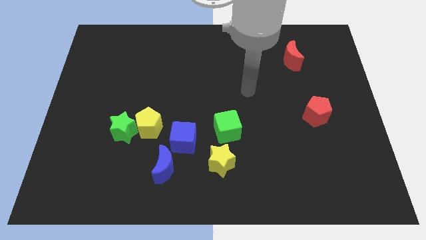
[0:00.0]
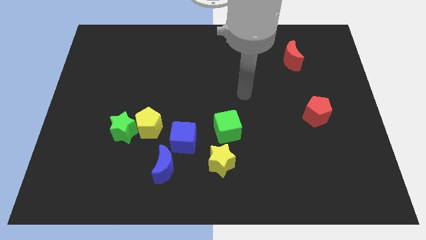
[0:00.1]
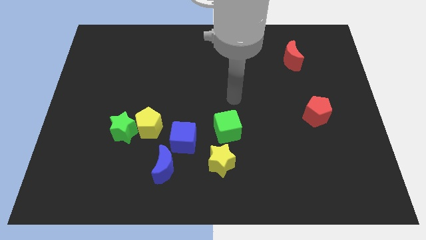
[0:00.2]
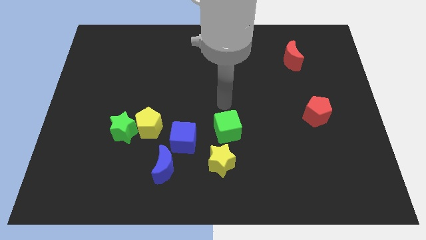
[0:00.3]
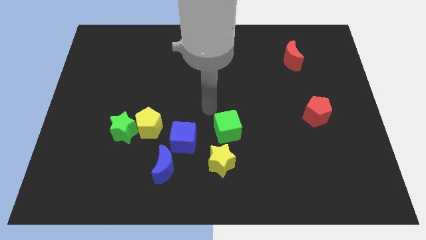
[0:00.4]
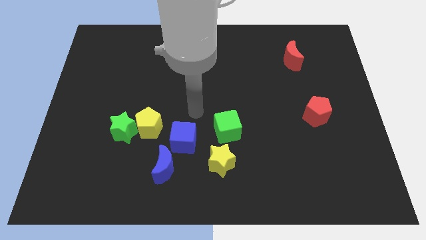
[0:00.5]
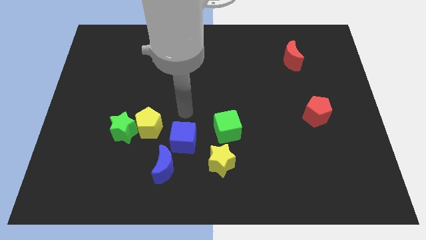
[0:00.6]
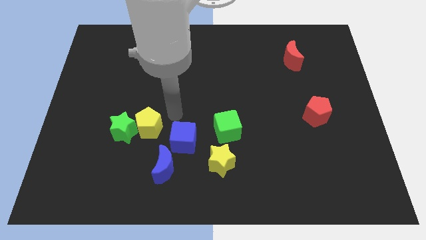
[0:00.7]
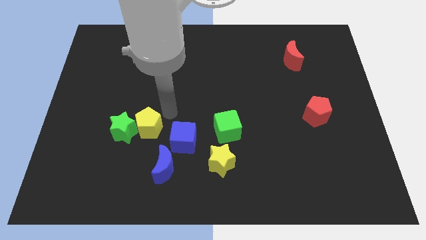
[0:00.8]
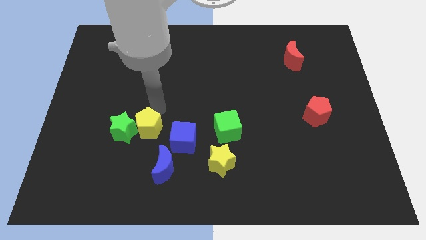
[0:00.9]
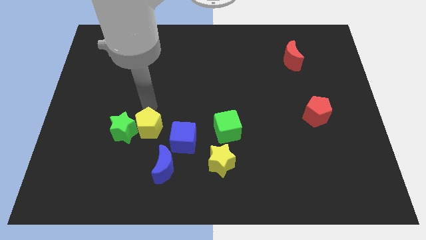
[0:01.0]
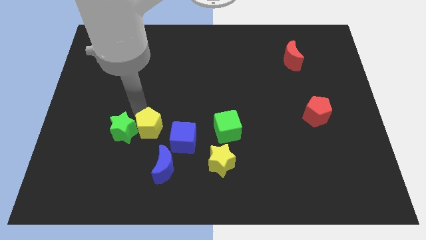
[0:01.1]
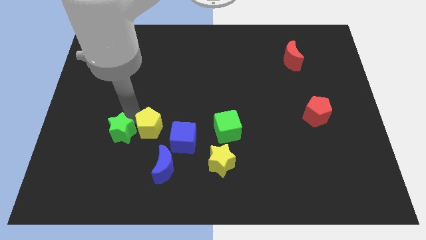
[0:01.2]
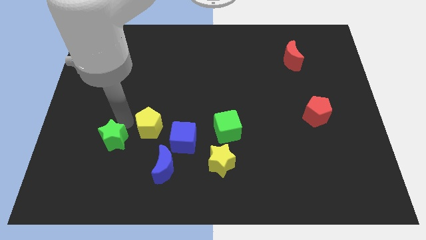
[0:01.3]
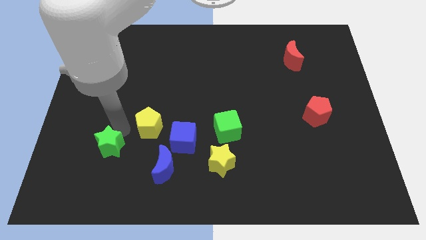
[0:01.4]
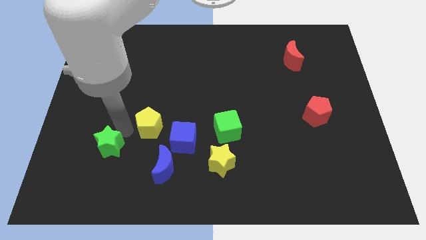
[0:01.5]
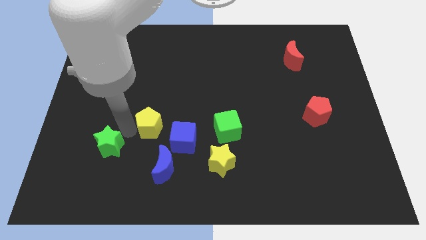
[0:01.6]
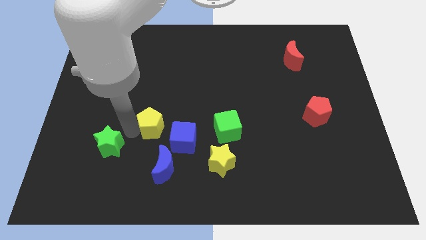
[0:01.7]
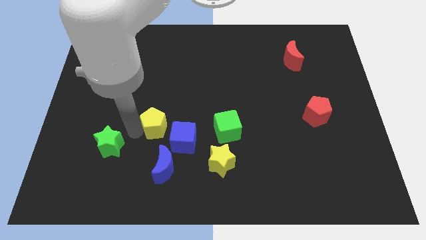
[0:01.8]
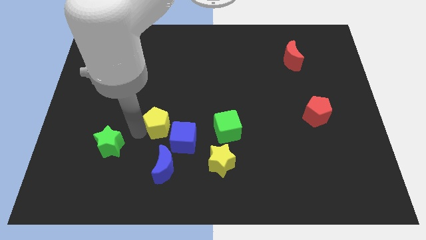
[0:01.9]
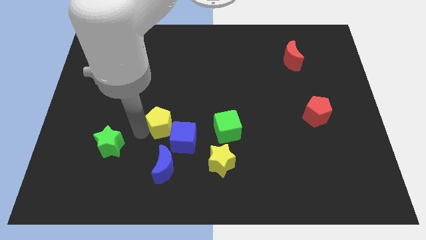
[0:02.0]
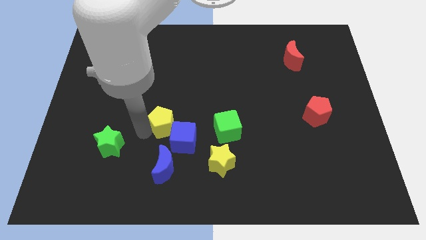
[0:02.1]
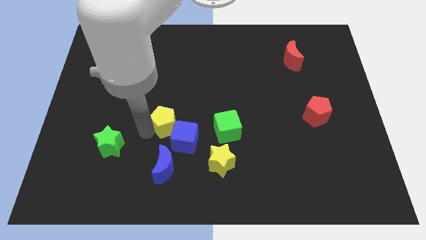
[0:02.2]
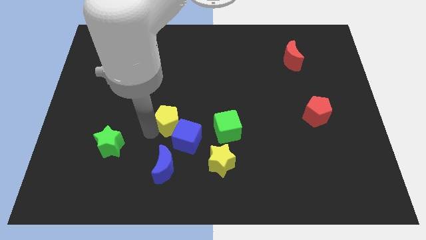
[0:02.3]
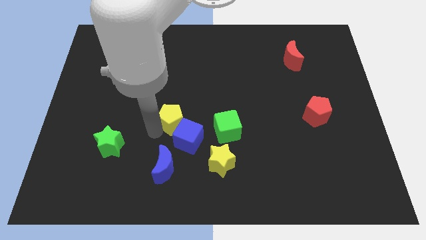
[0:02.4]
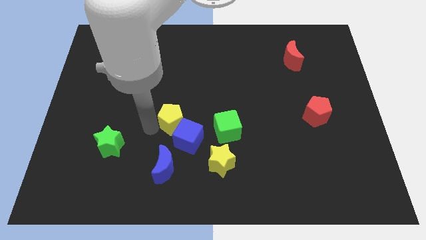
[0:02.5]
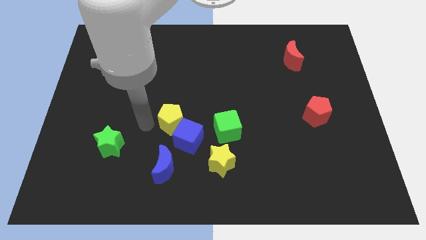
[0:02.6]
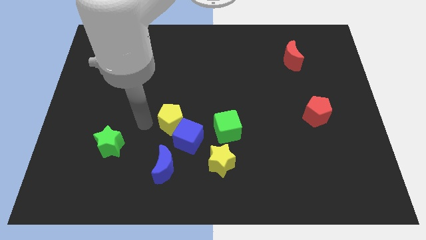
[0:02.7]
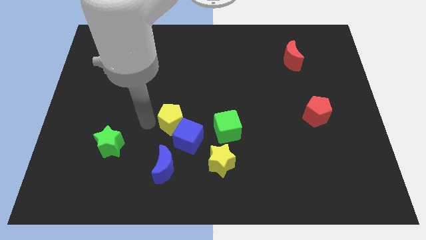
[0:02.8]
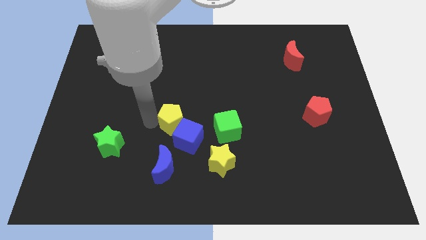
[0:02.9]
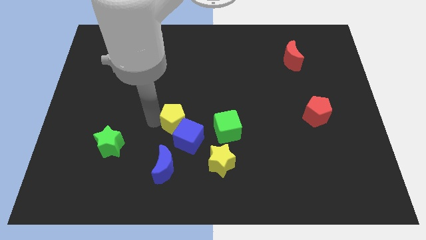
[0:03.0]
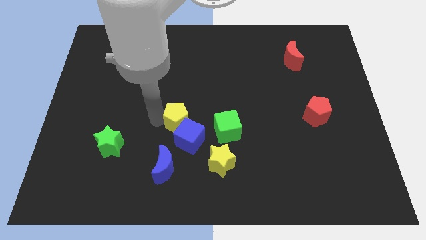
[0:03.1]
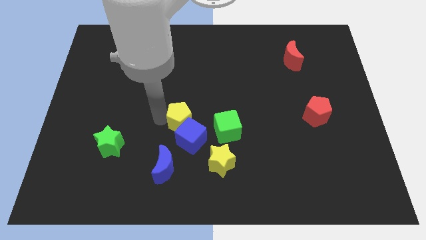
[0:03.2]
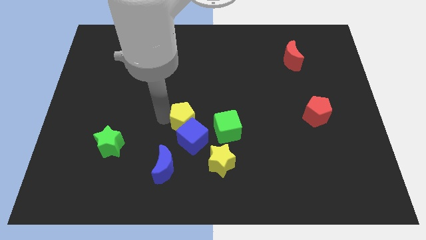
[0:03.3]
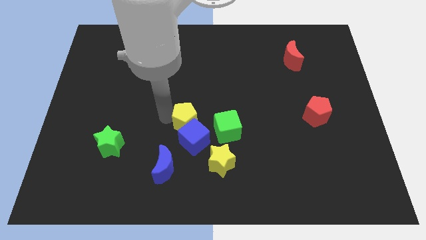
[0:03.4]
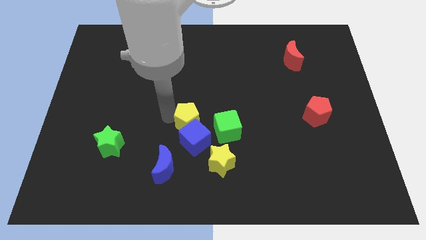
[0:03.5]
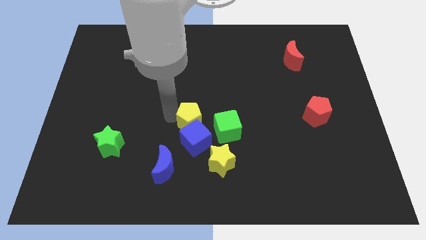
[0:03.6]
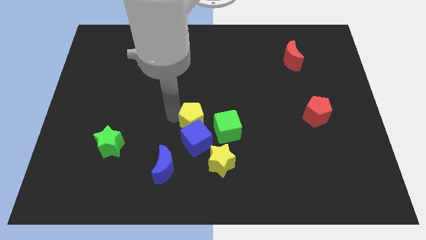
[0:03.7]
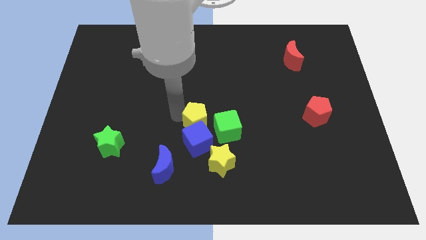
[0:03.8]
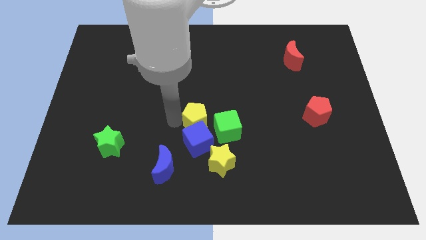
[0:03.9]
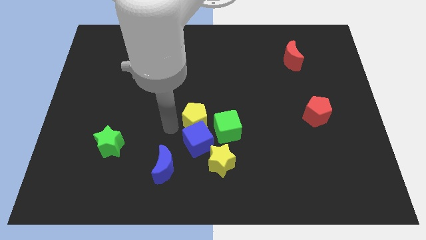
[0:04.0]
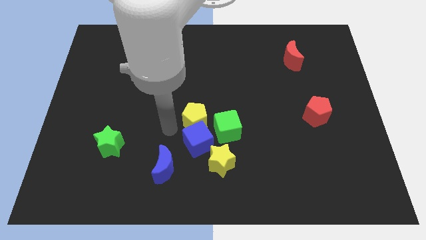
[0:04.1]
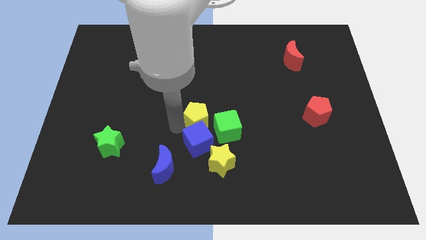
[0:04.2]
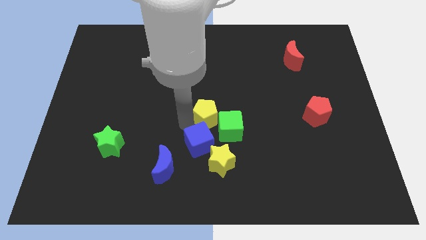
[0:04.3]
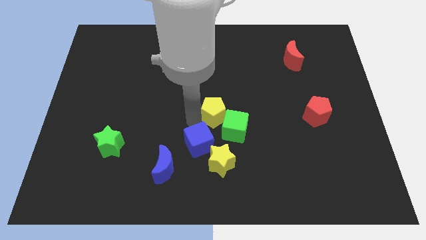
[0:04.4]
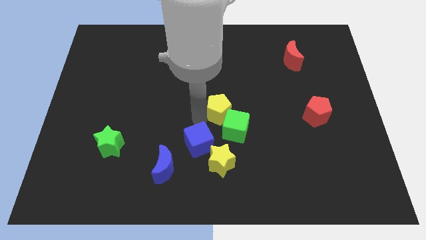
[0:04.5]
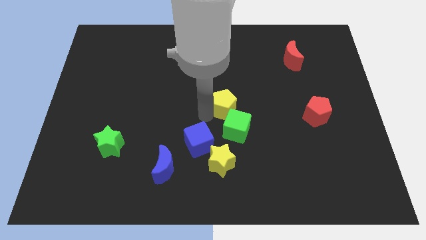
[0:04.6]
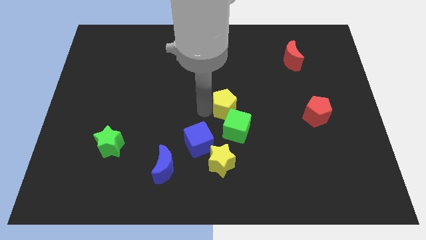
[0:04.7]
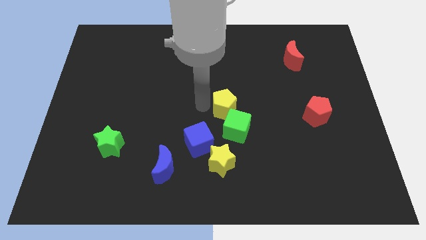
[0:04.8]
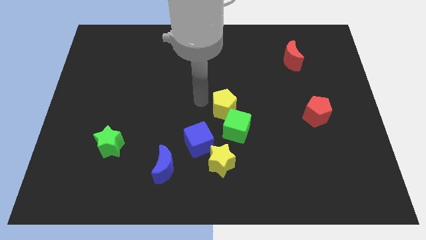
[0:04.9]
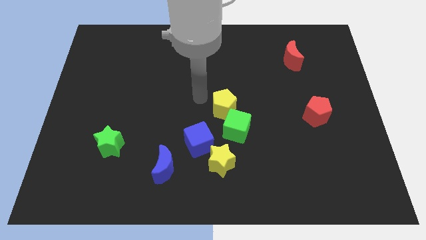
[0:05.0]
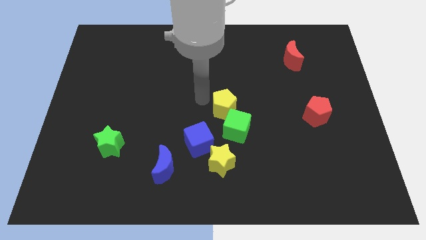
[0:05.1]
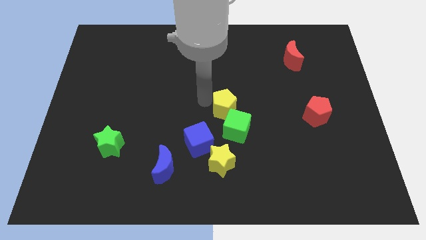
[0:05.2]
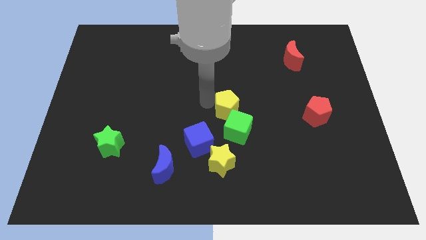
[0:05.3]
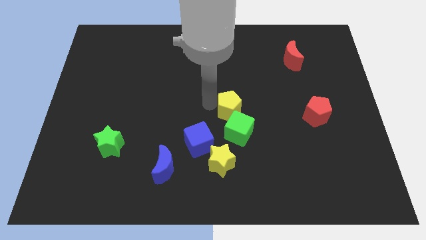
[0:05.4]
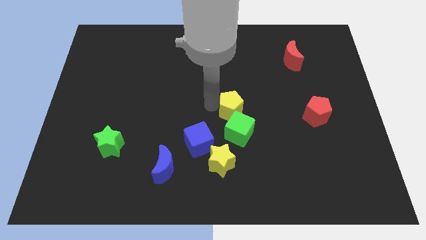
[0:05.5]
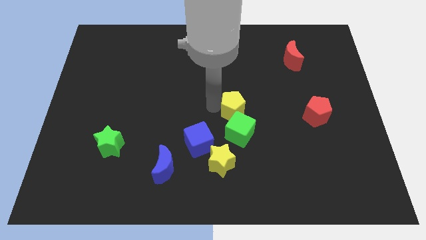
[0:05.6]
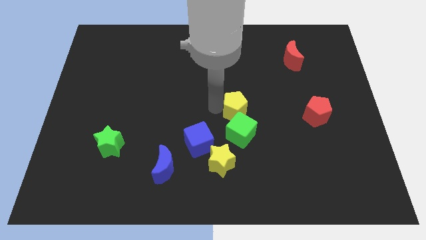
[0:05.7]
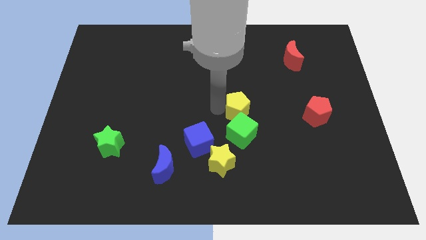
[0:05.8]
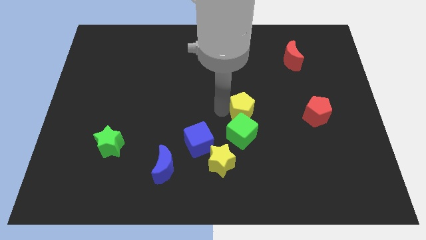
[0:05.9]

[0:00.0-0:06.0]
move the yellow pentagon to the right

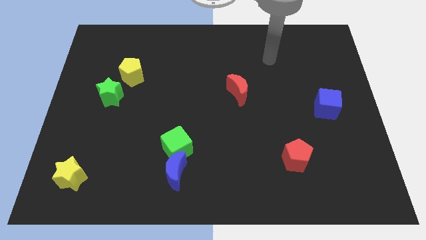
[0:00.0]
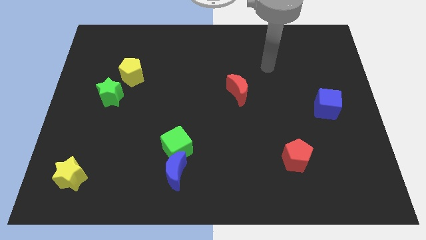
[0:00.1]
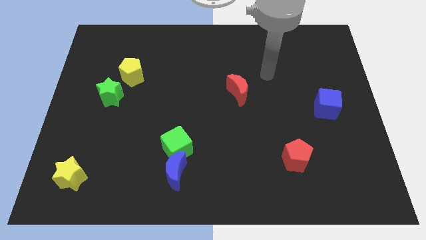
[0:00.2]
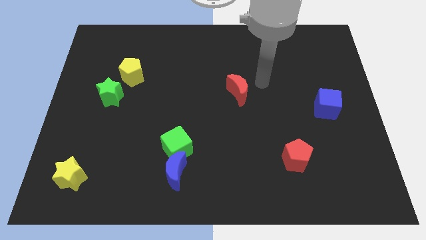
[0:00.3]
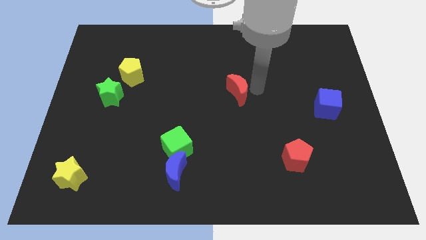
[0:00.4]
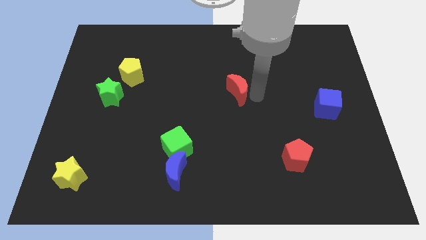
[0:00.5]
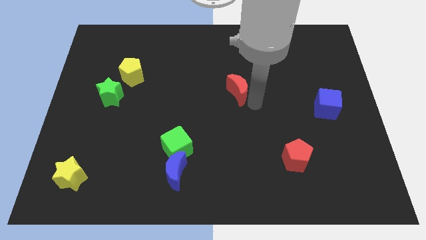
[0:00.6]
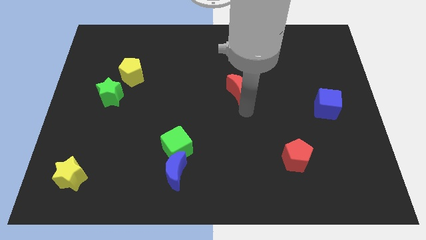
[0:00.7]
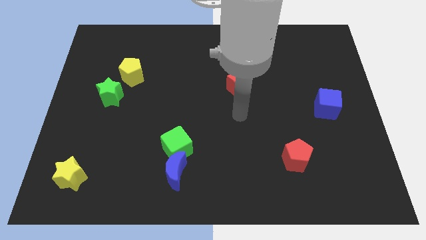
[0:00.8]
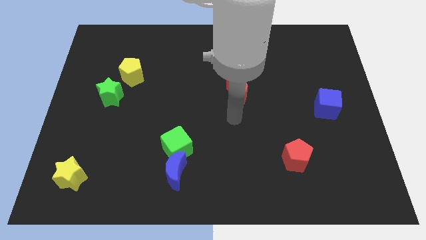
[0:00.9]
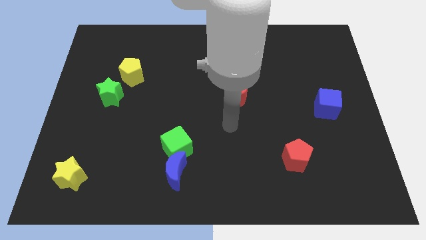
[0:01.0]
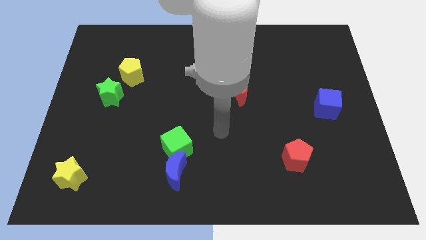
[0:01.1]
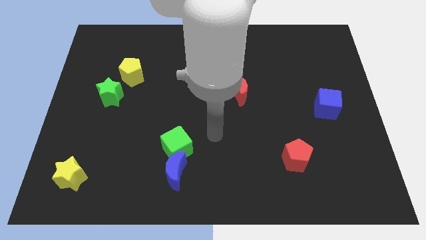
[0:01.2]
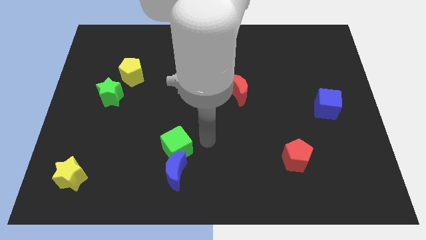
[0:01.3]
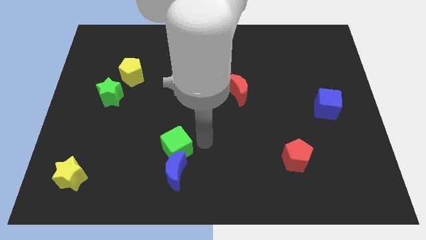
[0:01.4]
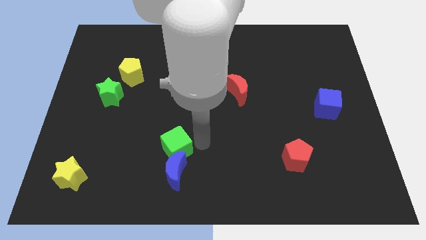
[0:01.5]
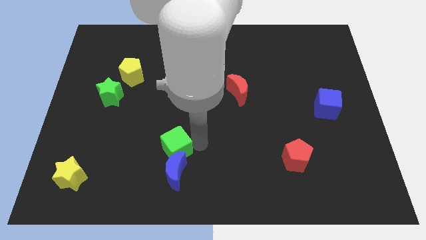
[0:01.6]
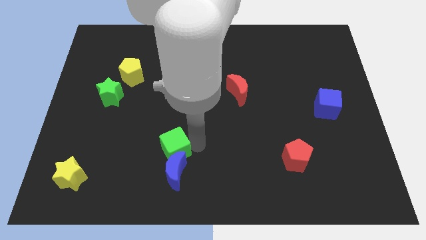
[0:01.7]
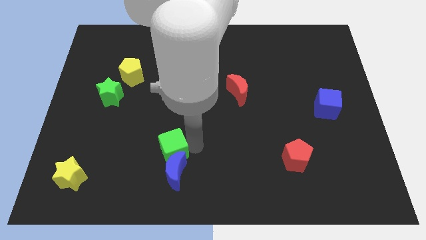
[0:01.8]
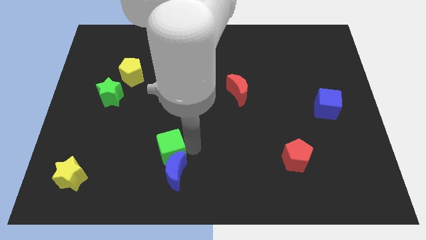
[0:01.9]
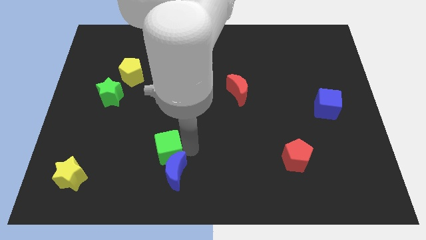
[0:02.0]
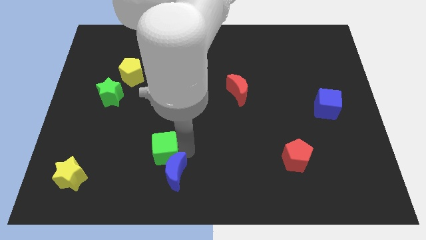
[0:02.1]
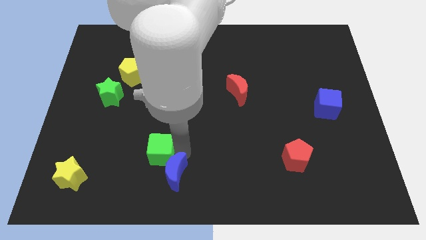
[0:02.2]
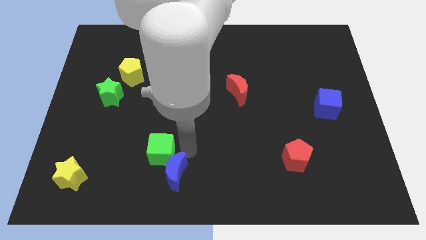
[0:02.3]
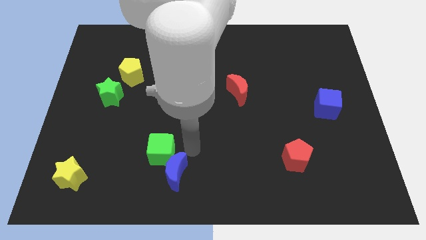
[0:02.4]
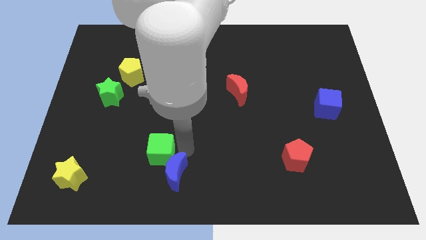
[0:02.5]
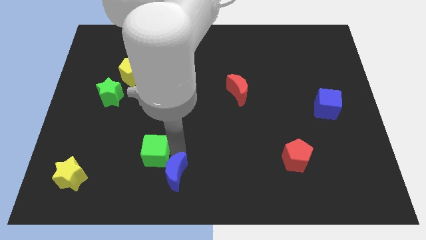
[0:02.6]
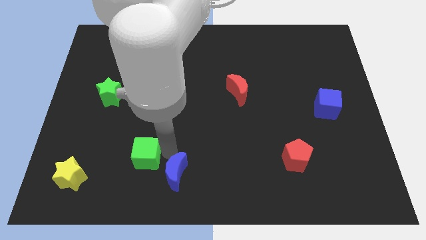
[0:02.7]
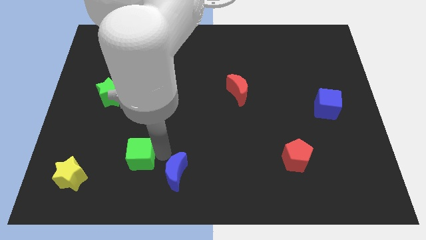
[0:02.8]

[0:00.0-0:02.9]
move the green cube to the left somewhat
